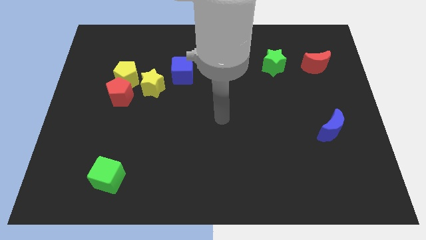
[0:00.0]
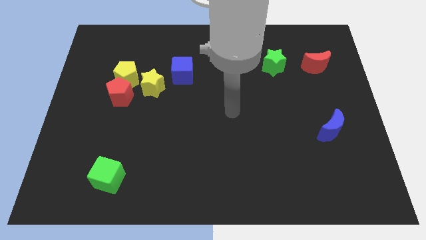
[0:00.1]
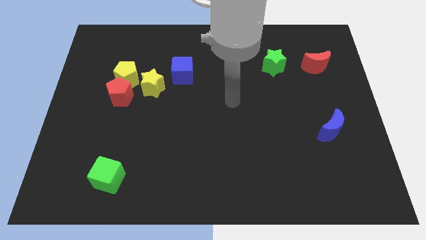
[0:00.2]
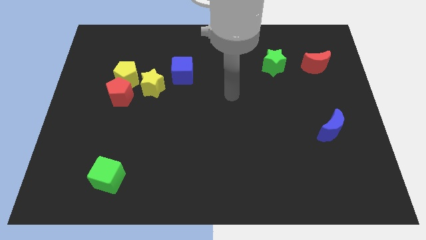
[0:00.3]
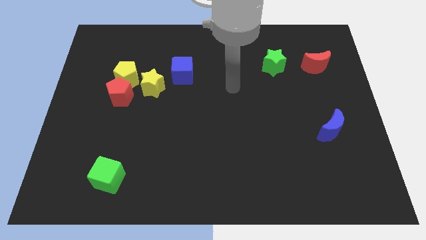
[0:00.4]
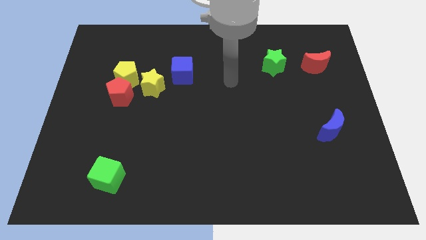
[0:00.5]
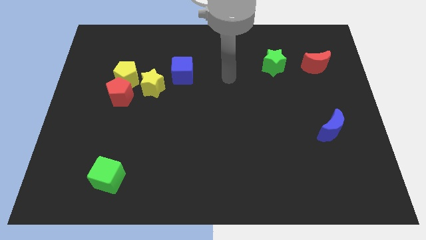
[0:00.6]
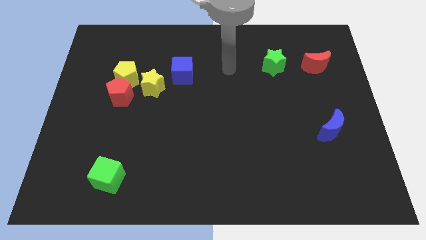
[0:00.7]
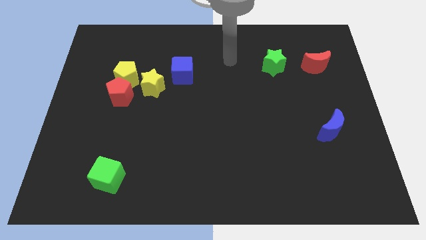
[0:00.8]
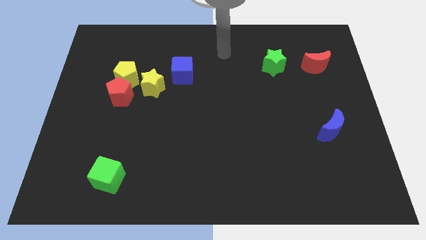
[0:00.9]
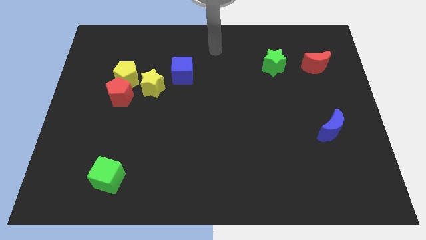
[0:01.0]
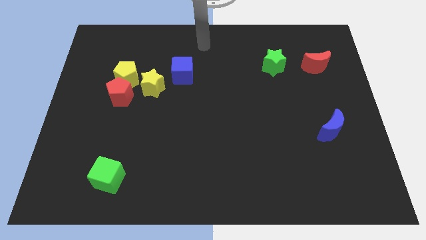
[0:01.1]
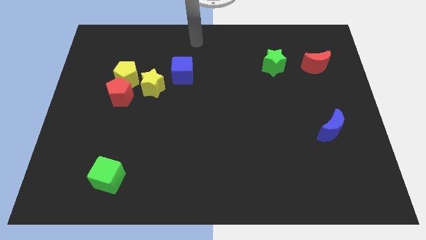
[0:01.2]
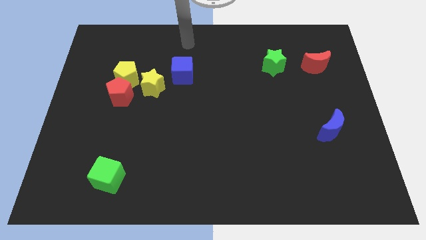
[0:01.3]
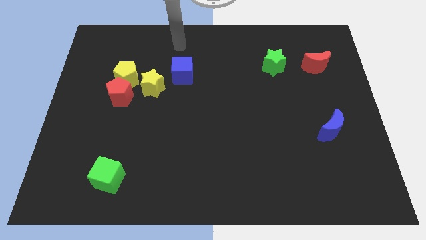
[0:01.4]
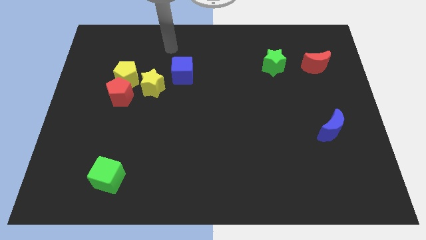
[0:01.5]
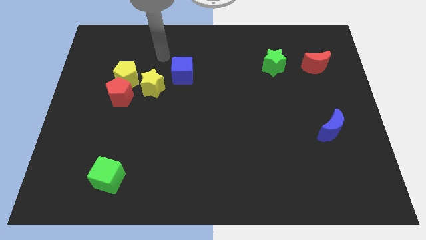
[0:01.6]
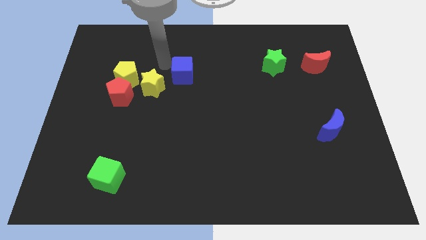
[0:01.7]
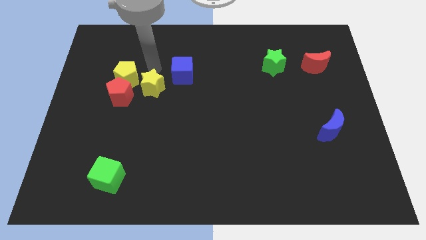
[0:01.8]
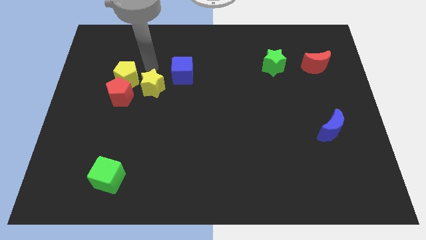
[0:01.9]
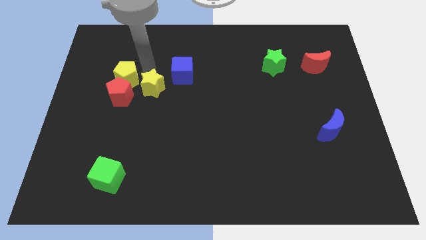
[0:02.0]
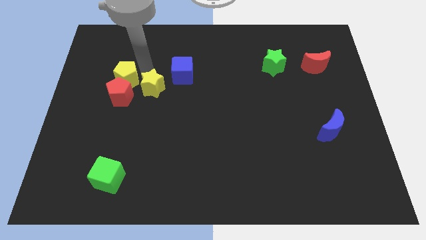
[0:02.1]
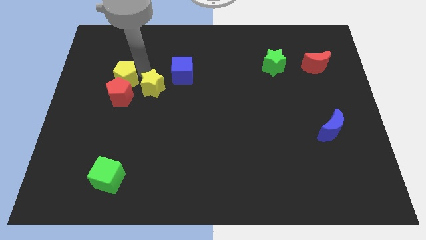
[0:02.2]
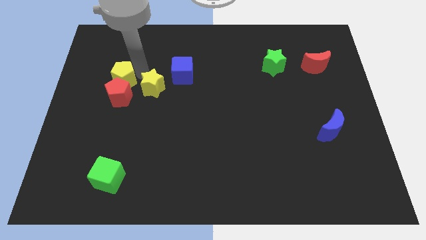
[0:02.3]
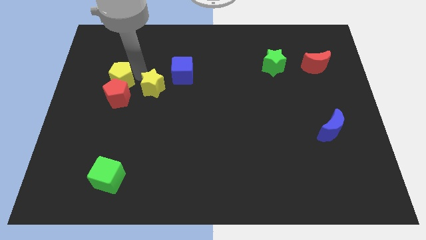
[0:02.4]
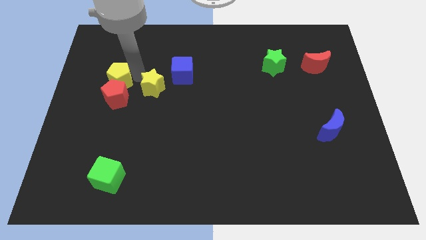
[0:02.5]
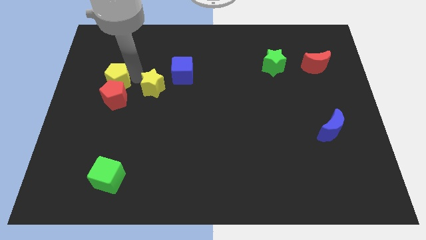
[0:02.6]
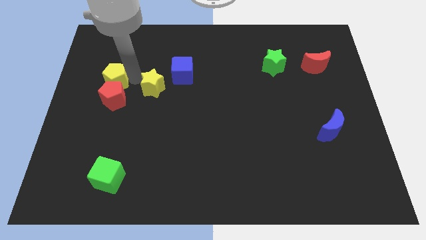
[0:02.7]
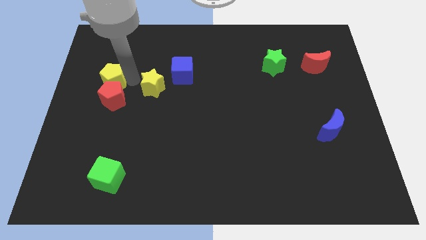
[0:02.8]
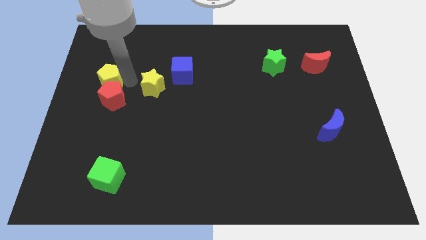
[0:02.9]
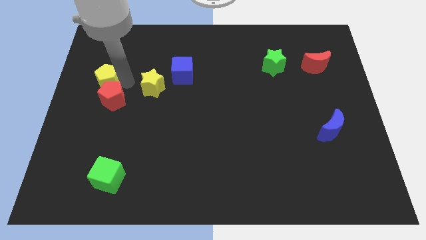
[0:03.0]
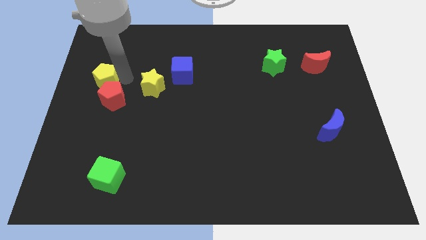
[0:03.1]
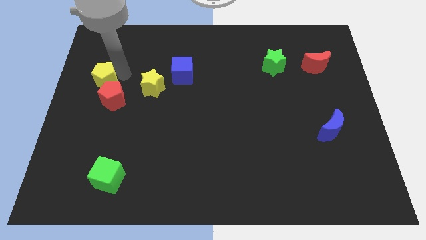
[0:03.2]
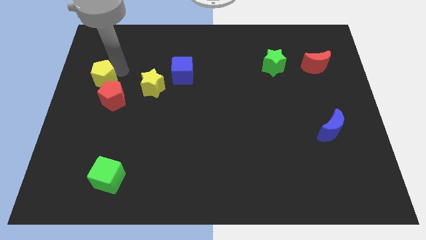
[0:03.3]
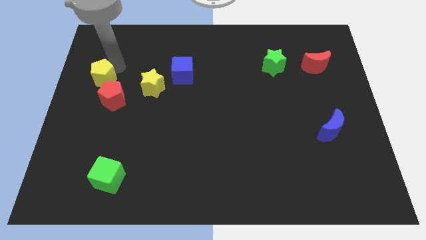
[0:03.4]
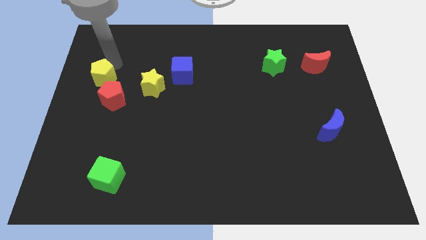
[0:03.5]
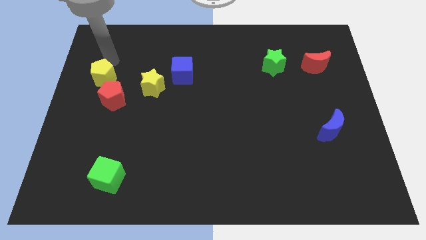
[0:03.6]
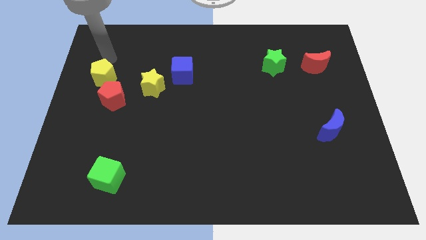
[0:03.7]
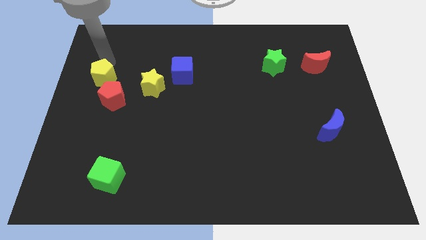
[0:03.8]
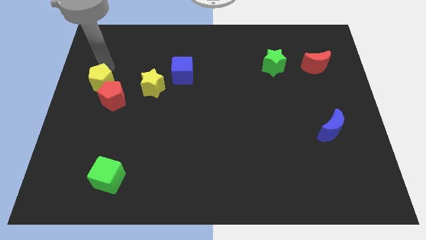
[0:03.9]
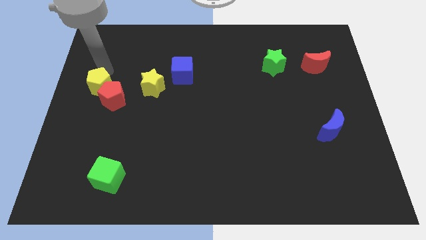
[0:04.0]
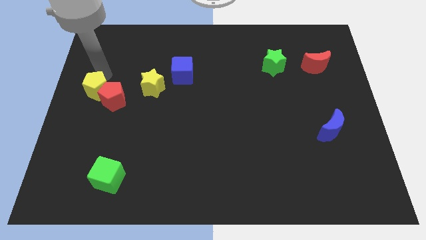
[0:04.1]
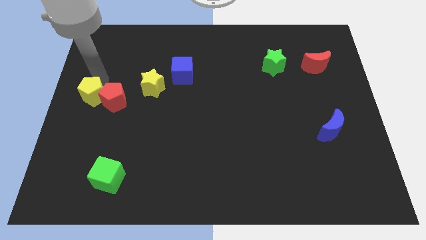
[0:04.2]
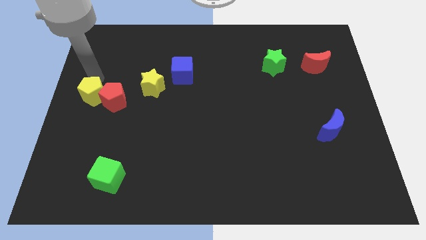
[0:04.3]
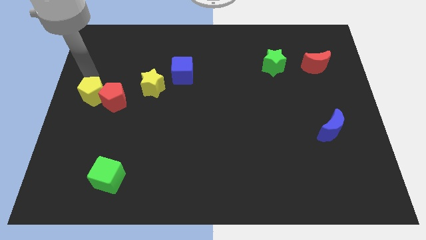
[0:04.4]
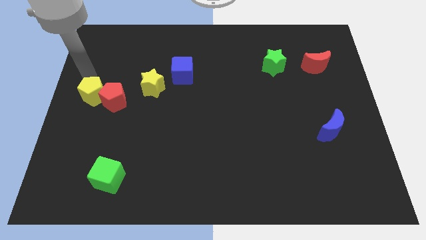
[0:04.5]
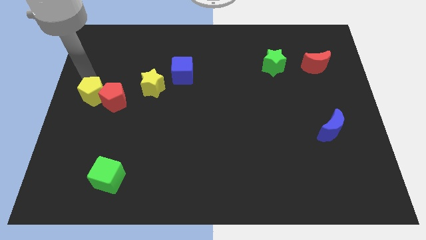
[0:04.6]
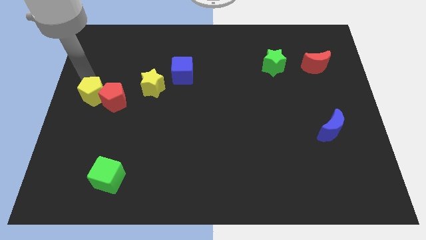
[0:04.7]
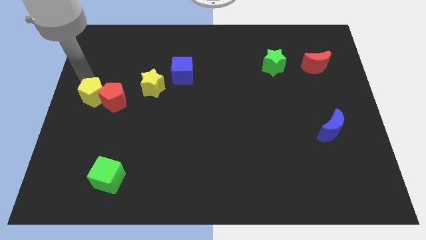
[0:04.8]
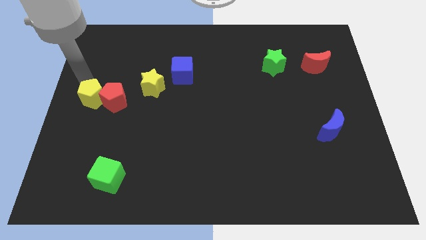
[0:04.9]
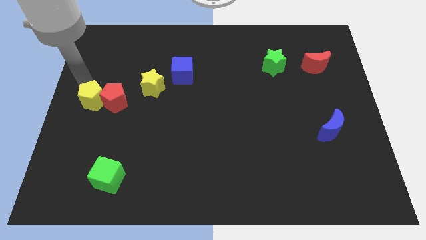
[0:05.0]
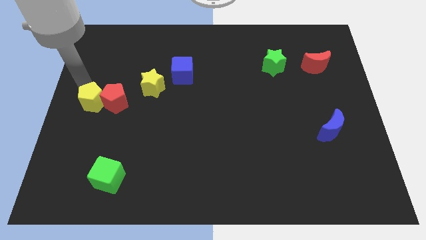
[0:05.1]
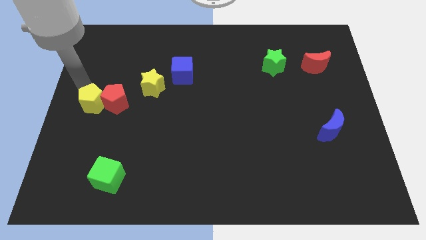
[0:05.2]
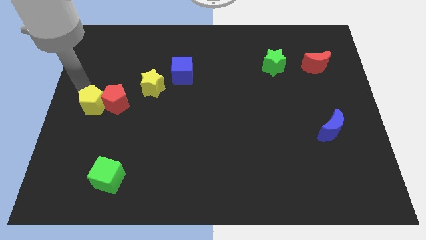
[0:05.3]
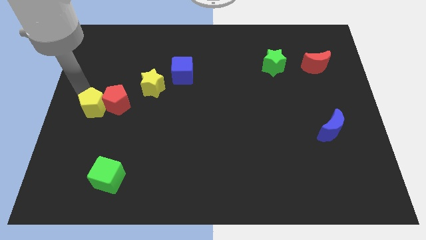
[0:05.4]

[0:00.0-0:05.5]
slightly push the yellow pentagon down

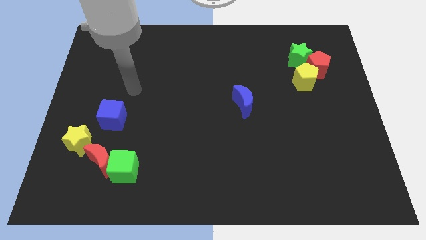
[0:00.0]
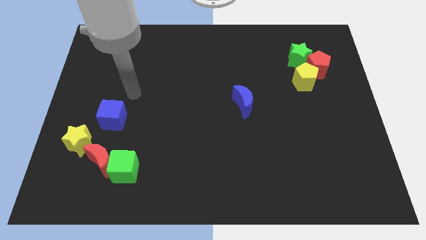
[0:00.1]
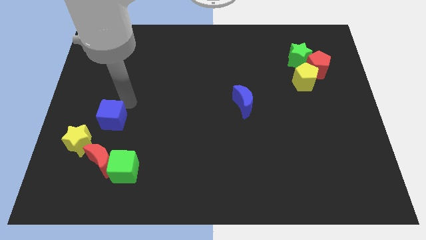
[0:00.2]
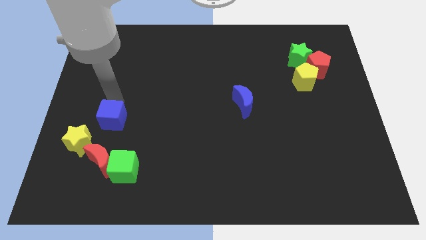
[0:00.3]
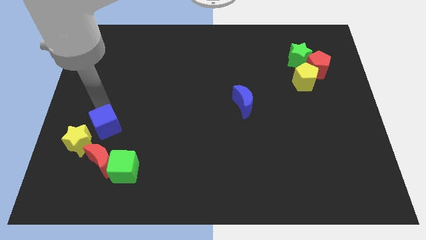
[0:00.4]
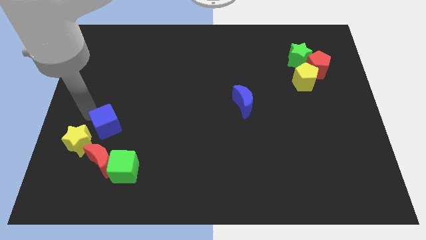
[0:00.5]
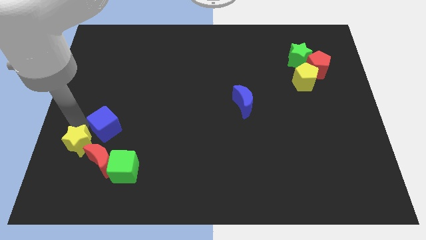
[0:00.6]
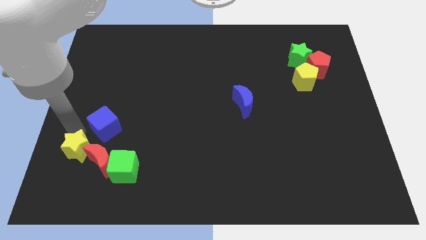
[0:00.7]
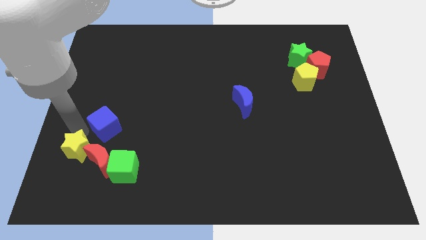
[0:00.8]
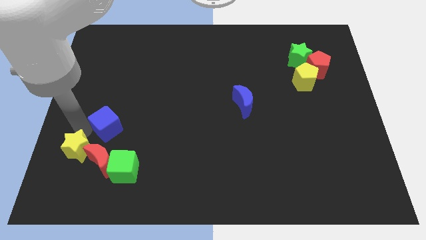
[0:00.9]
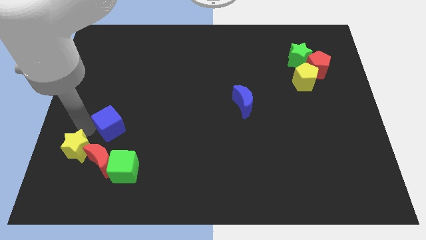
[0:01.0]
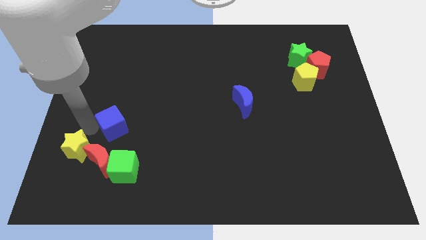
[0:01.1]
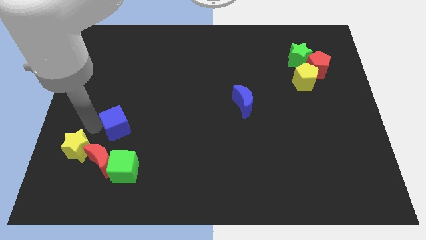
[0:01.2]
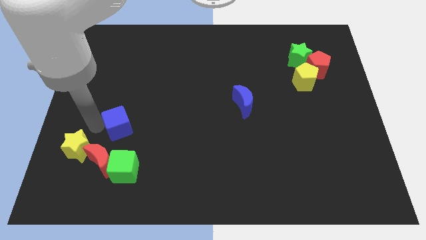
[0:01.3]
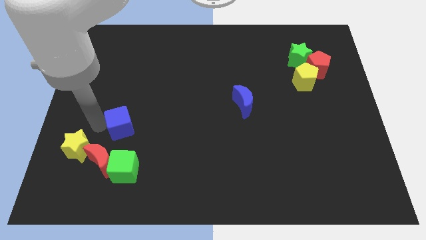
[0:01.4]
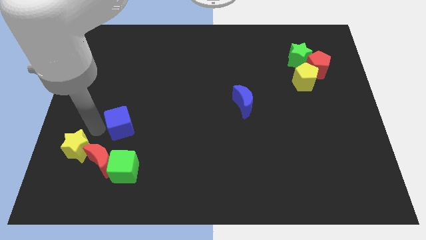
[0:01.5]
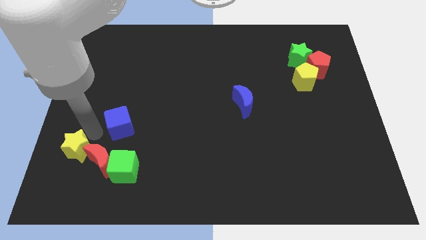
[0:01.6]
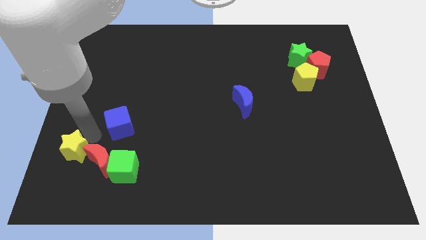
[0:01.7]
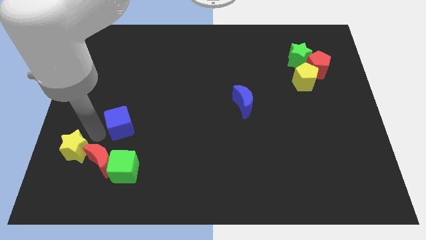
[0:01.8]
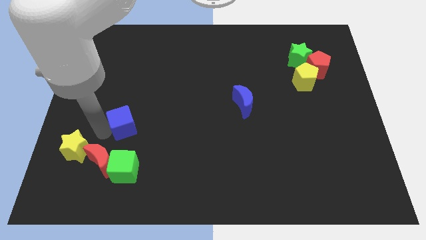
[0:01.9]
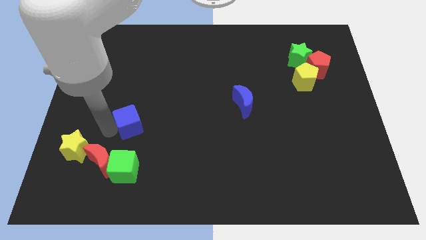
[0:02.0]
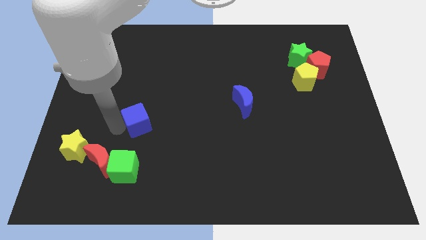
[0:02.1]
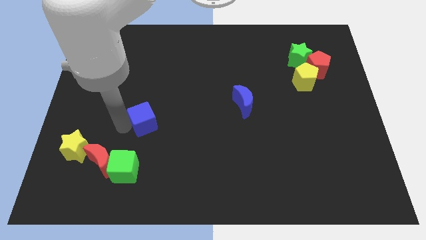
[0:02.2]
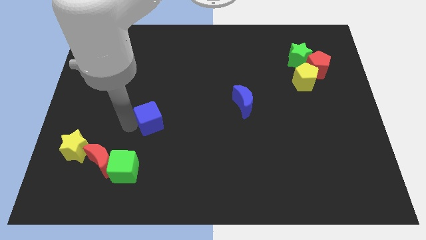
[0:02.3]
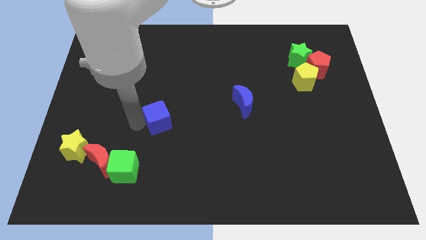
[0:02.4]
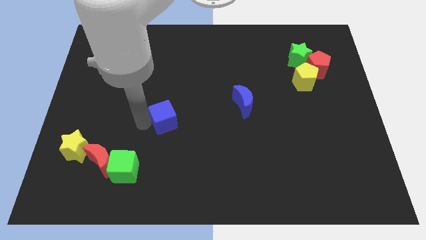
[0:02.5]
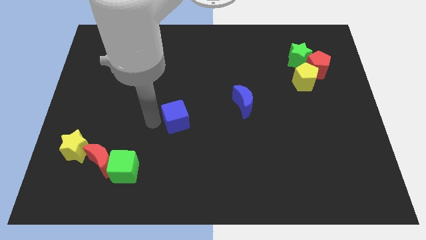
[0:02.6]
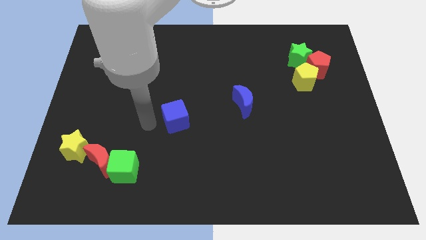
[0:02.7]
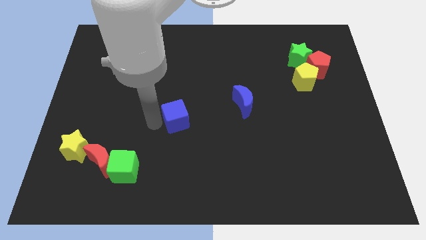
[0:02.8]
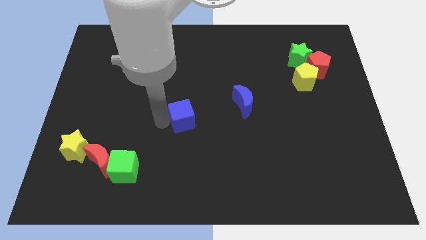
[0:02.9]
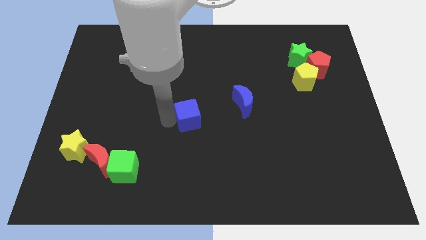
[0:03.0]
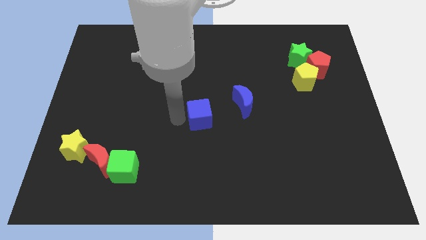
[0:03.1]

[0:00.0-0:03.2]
push the blue cube right
